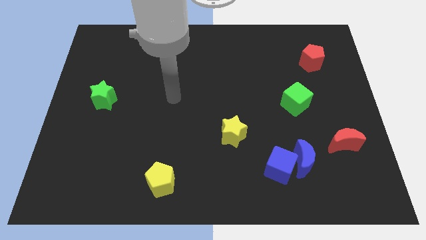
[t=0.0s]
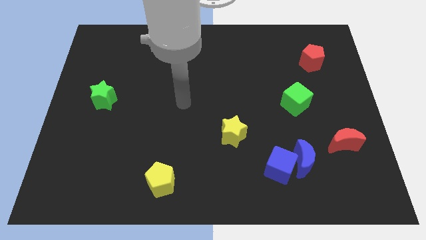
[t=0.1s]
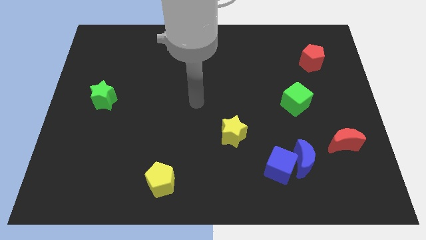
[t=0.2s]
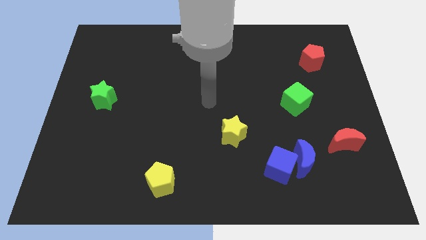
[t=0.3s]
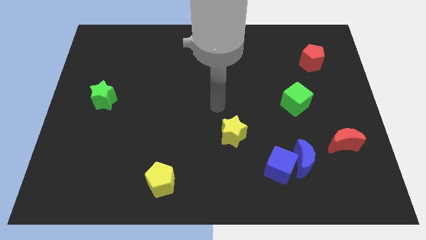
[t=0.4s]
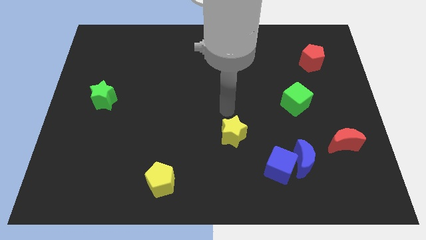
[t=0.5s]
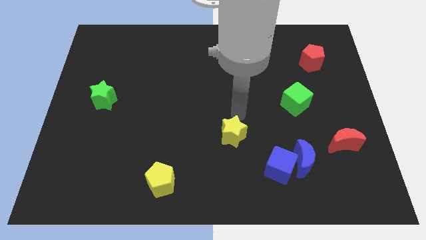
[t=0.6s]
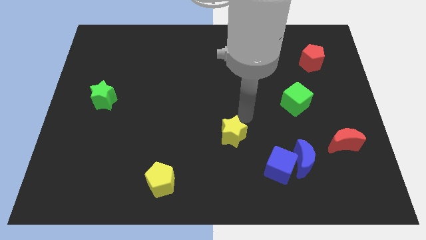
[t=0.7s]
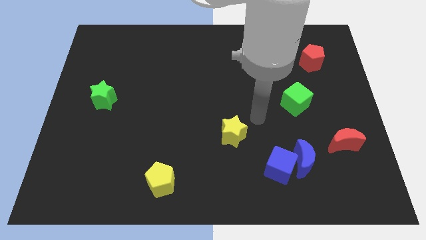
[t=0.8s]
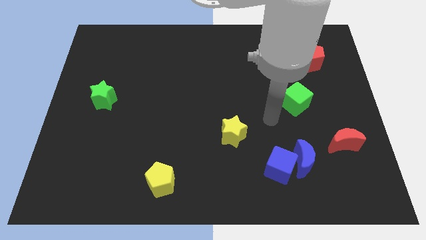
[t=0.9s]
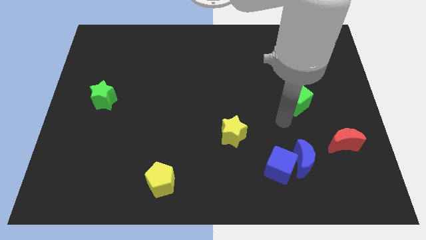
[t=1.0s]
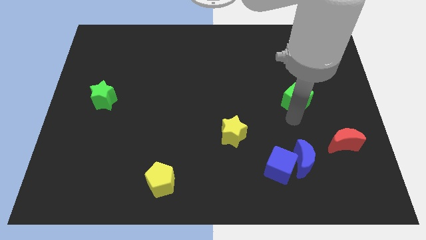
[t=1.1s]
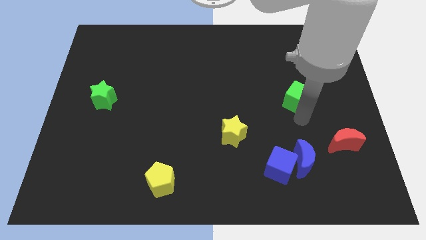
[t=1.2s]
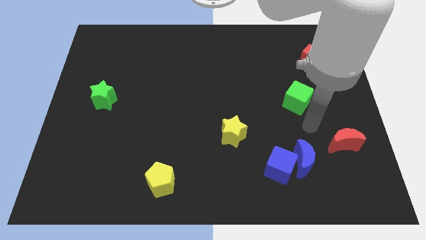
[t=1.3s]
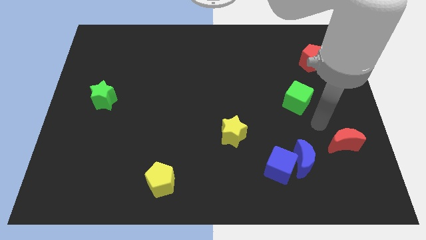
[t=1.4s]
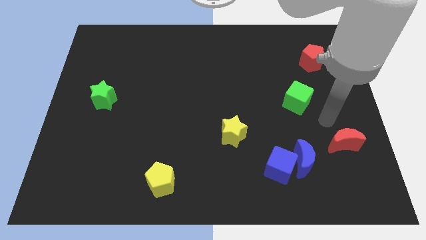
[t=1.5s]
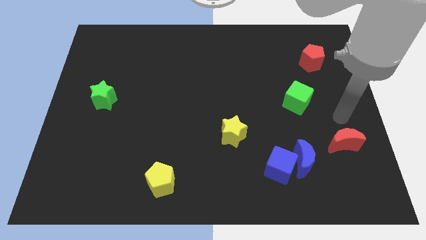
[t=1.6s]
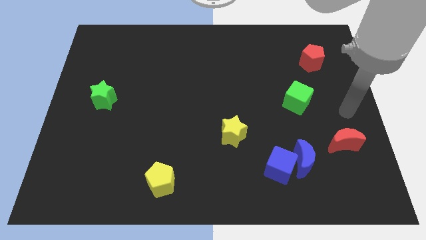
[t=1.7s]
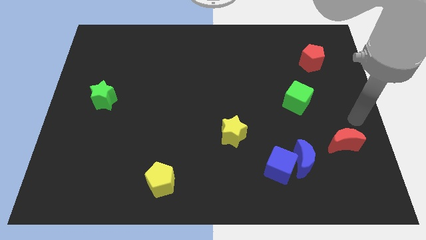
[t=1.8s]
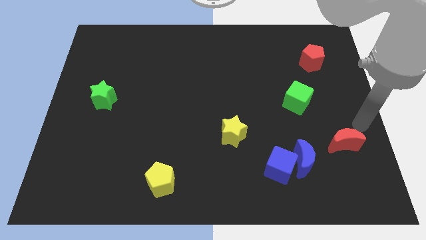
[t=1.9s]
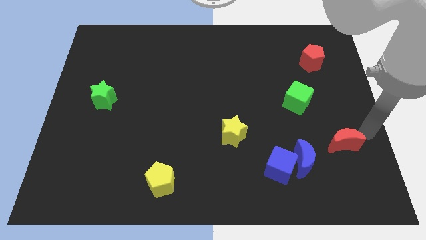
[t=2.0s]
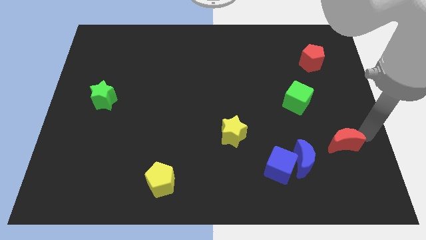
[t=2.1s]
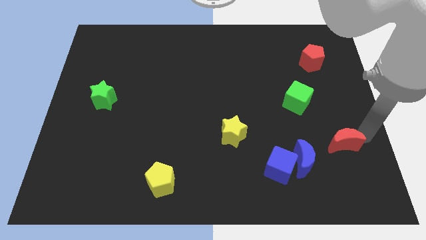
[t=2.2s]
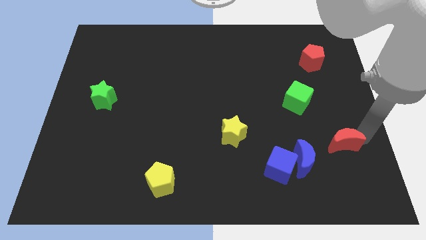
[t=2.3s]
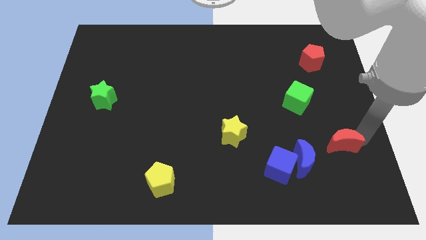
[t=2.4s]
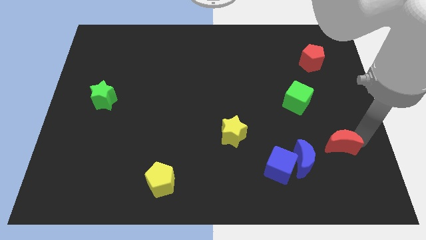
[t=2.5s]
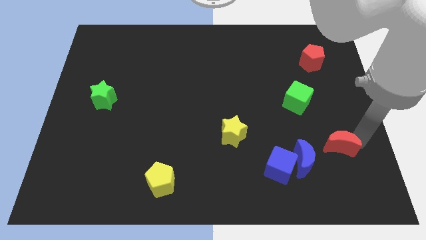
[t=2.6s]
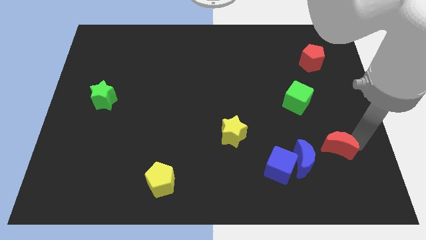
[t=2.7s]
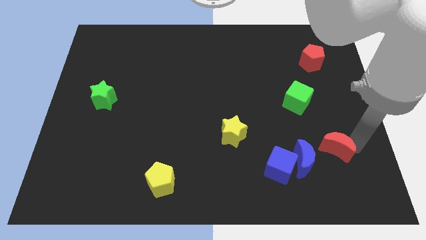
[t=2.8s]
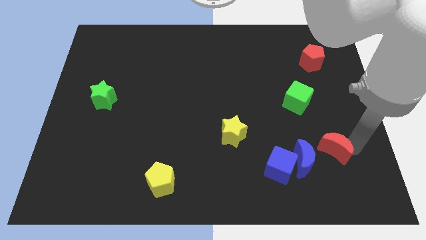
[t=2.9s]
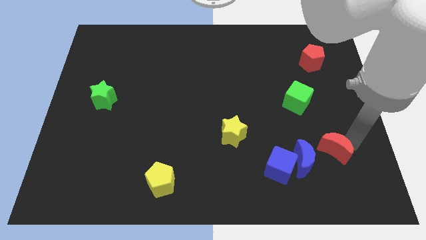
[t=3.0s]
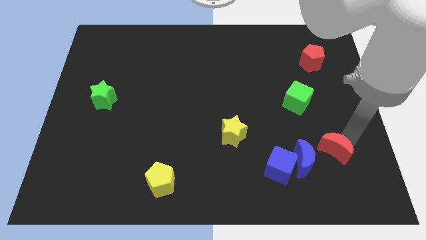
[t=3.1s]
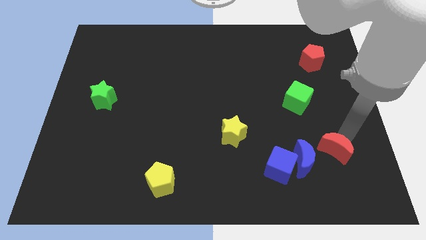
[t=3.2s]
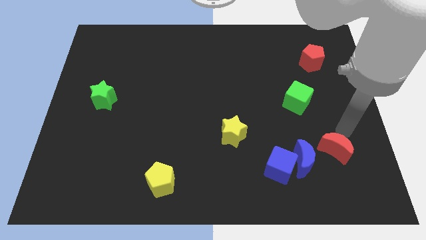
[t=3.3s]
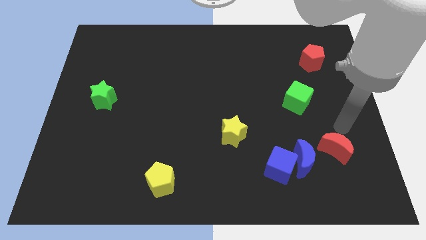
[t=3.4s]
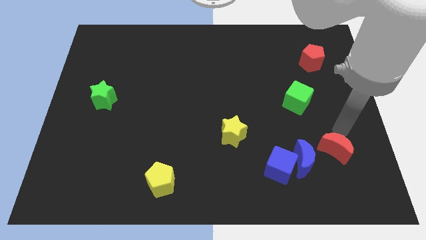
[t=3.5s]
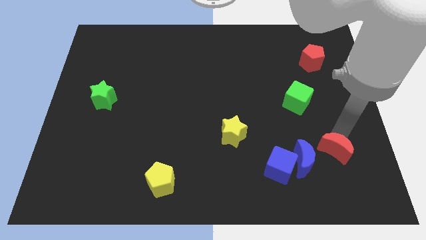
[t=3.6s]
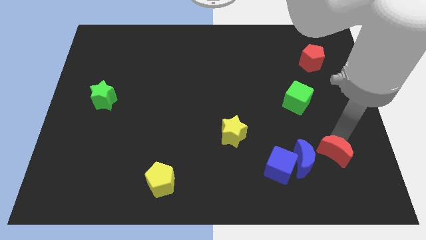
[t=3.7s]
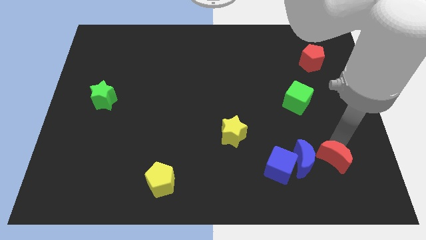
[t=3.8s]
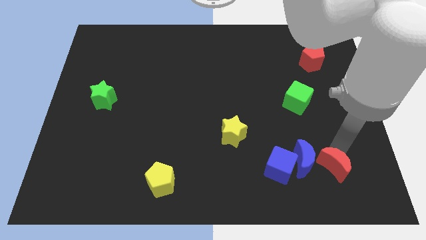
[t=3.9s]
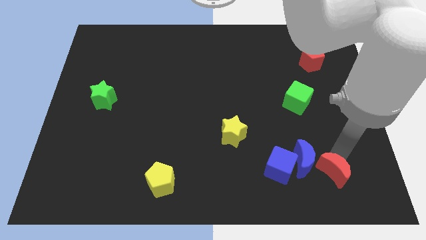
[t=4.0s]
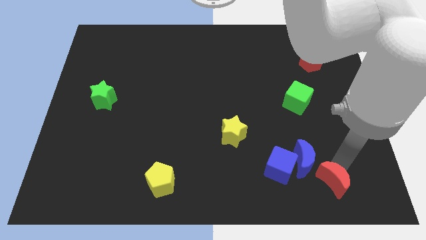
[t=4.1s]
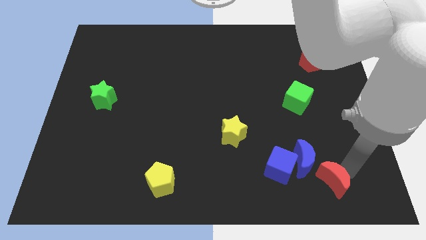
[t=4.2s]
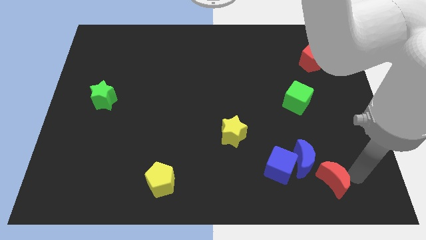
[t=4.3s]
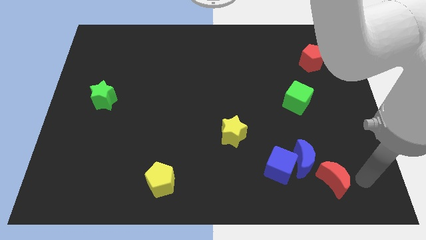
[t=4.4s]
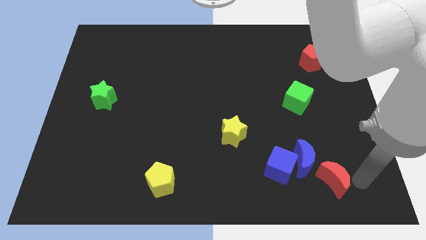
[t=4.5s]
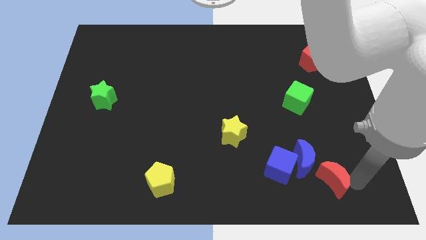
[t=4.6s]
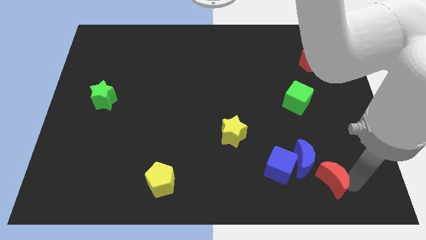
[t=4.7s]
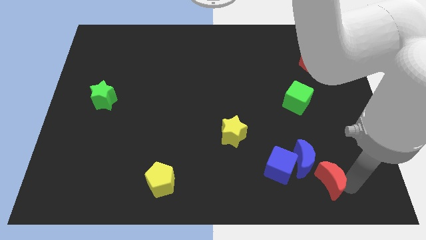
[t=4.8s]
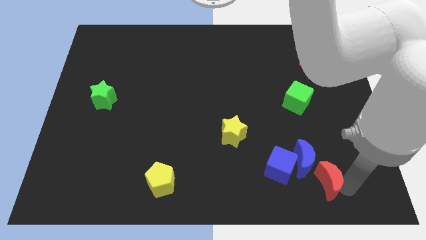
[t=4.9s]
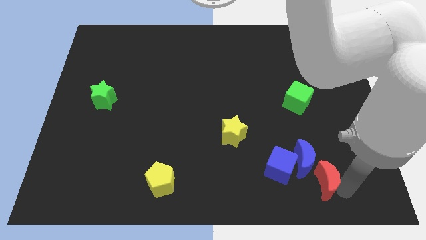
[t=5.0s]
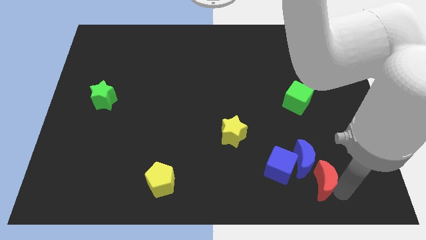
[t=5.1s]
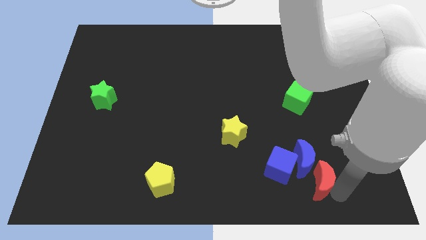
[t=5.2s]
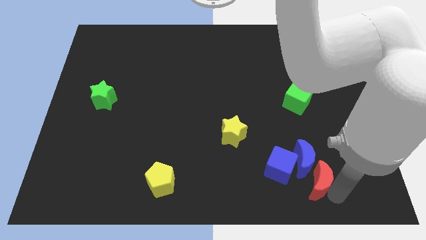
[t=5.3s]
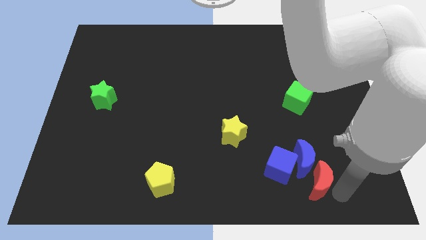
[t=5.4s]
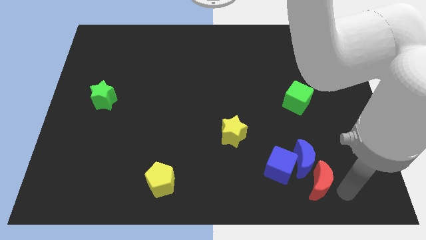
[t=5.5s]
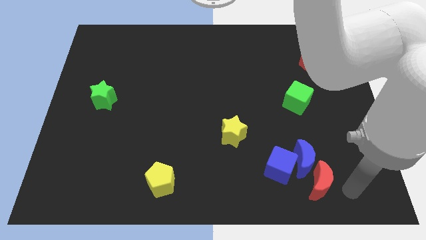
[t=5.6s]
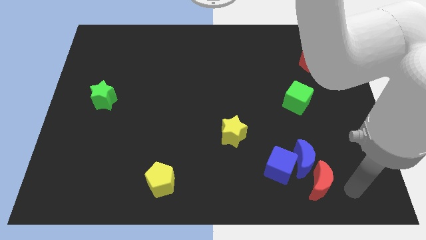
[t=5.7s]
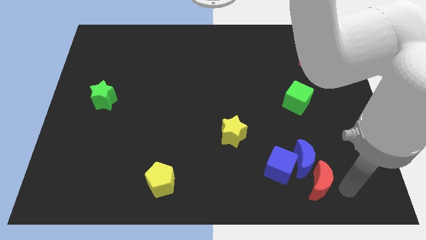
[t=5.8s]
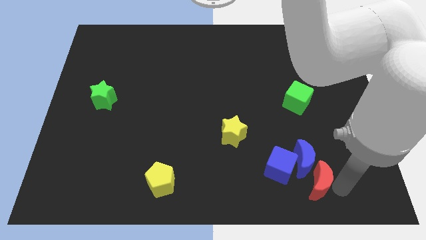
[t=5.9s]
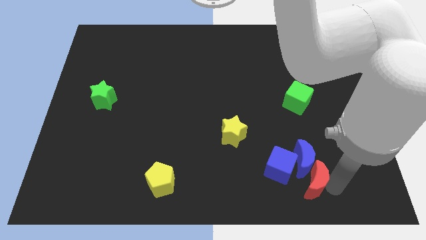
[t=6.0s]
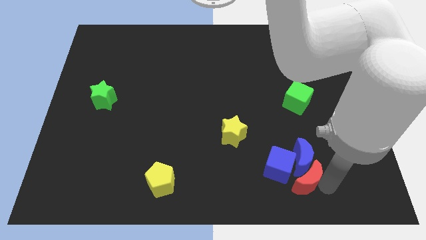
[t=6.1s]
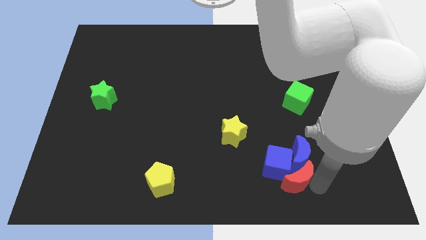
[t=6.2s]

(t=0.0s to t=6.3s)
move the red moon to the blue cube
